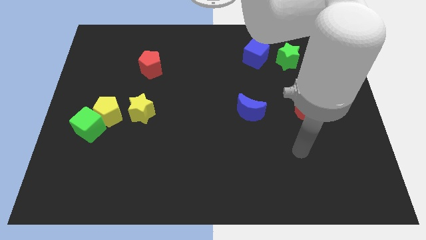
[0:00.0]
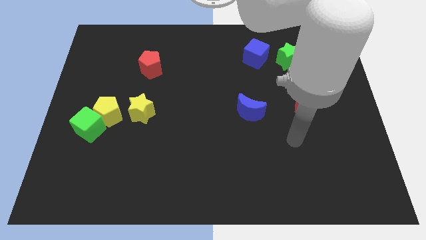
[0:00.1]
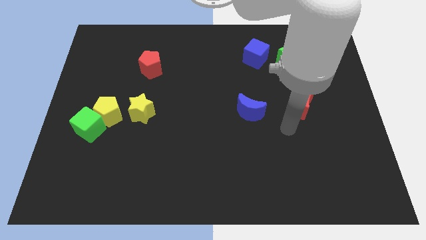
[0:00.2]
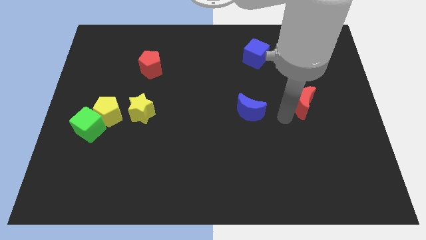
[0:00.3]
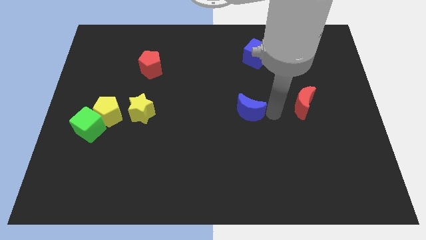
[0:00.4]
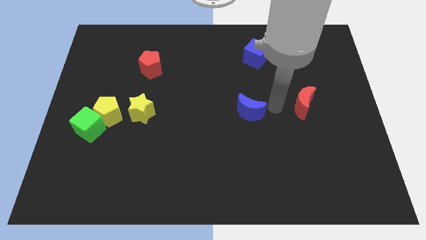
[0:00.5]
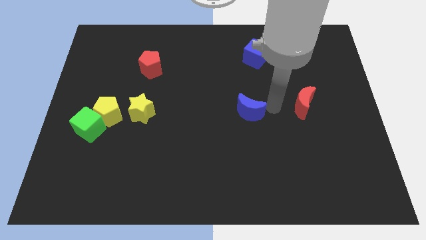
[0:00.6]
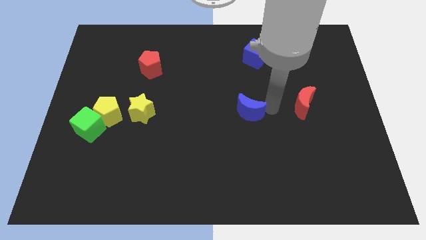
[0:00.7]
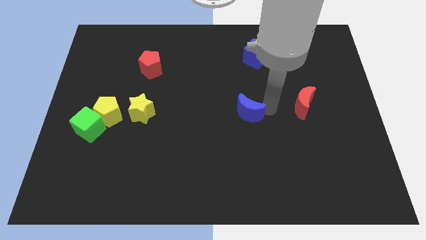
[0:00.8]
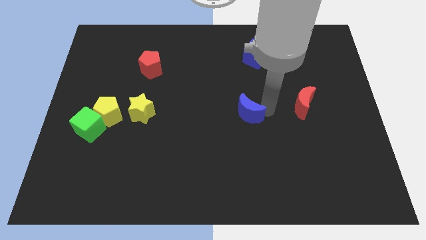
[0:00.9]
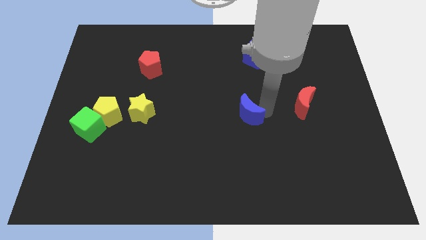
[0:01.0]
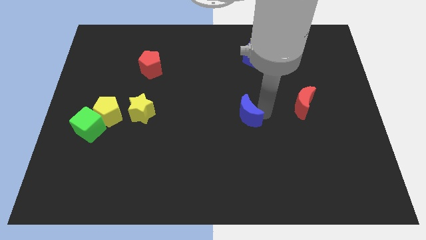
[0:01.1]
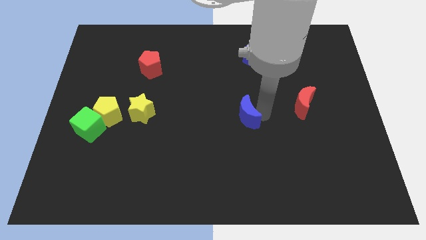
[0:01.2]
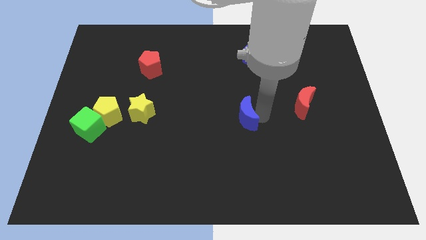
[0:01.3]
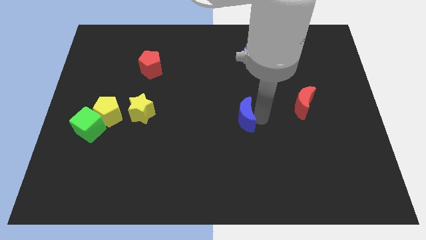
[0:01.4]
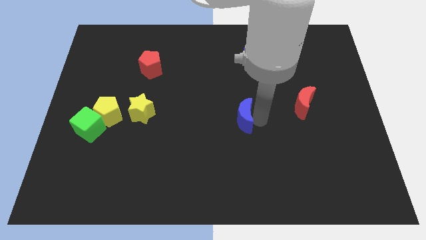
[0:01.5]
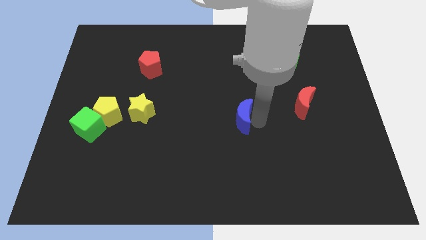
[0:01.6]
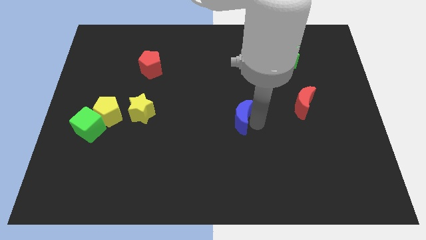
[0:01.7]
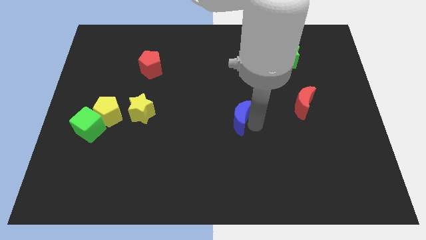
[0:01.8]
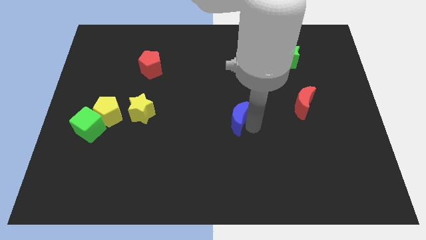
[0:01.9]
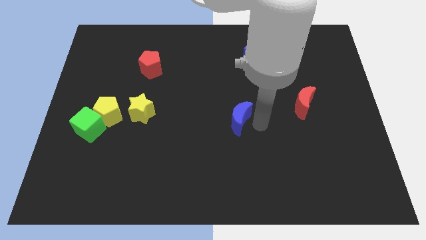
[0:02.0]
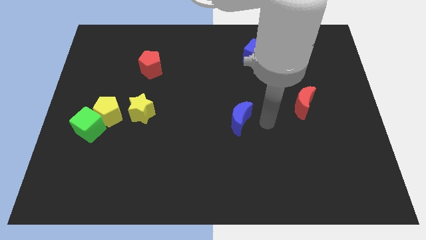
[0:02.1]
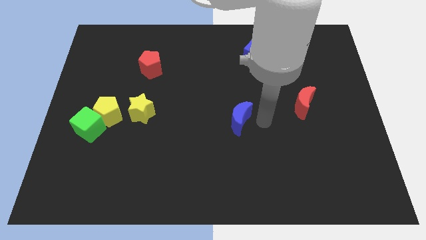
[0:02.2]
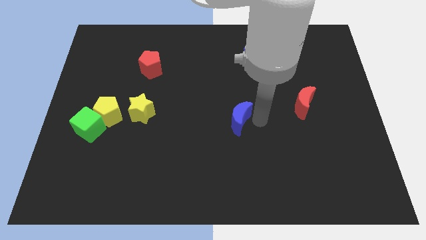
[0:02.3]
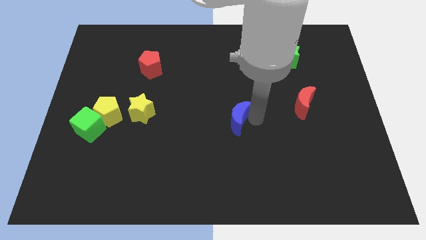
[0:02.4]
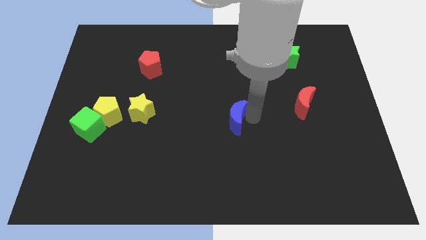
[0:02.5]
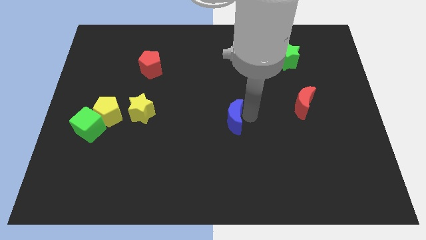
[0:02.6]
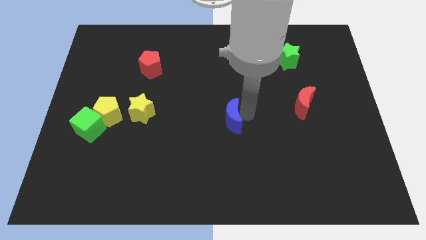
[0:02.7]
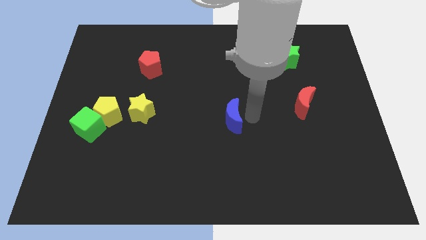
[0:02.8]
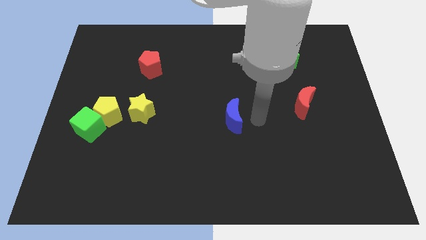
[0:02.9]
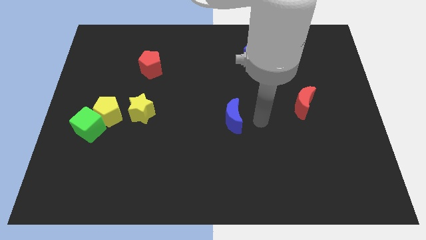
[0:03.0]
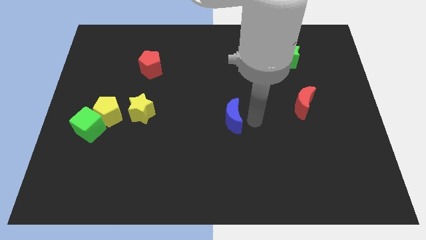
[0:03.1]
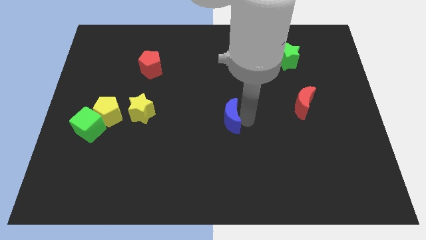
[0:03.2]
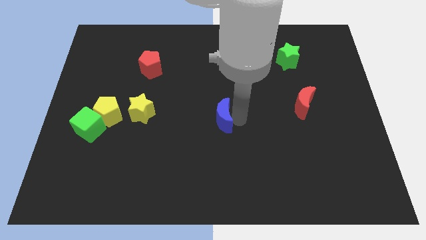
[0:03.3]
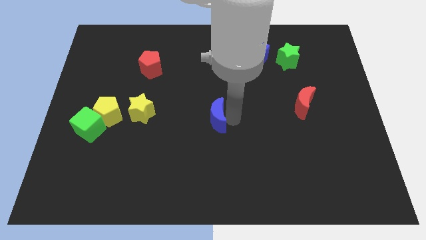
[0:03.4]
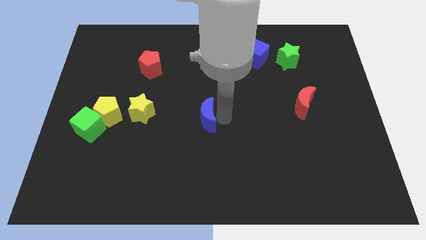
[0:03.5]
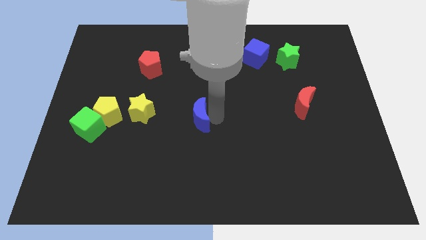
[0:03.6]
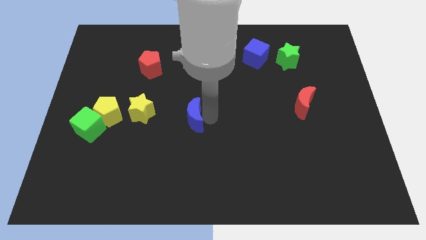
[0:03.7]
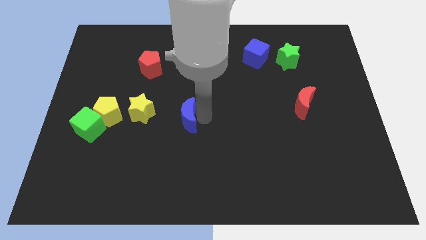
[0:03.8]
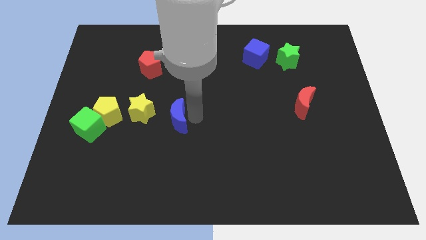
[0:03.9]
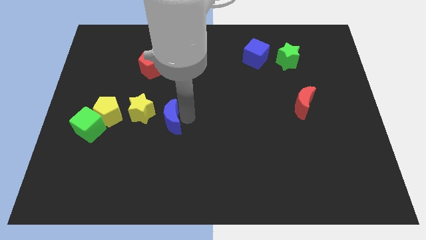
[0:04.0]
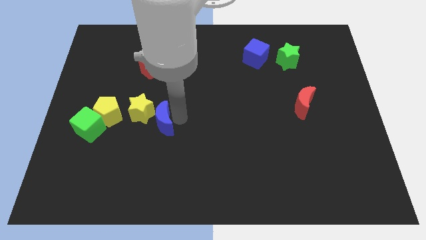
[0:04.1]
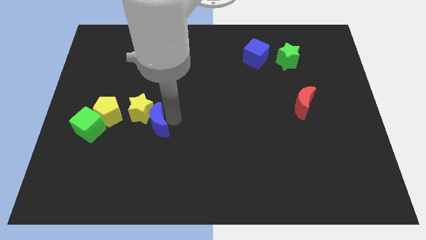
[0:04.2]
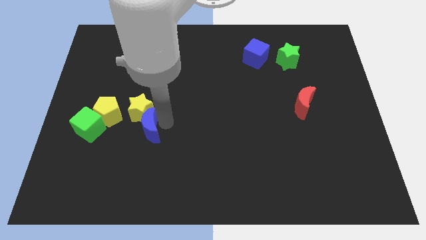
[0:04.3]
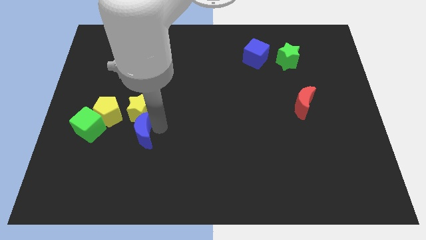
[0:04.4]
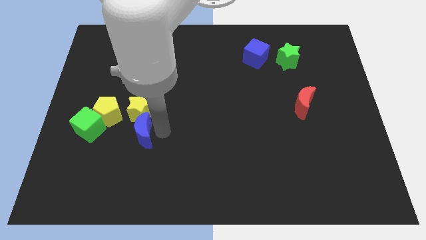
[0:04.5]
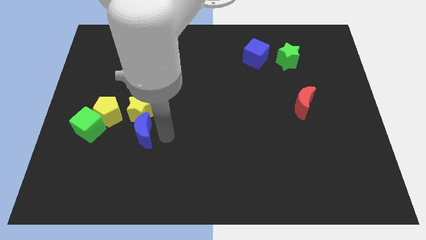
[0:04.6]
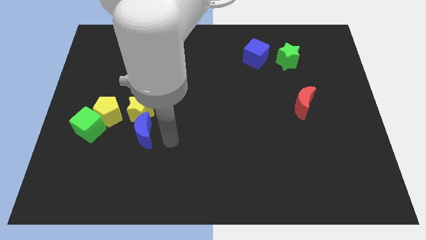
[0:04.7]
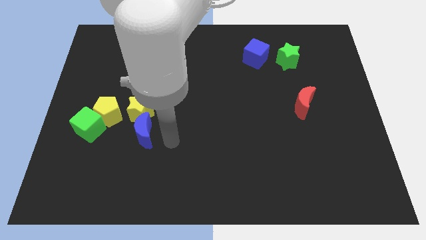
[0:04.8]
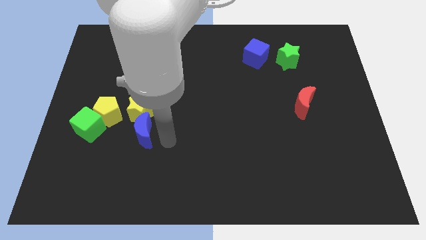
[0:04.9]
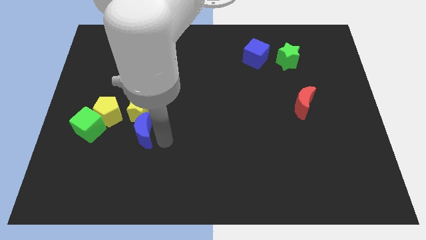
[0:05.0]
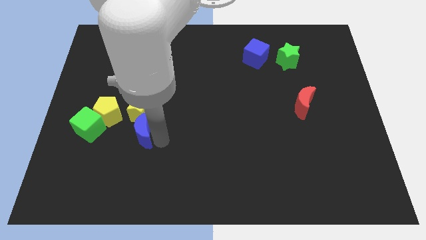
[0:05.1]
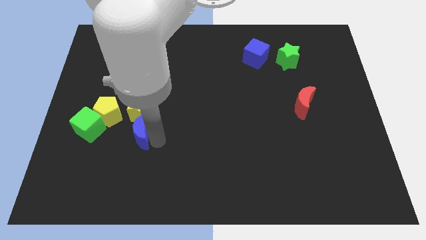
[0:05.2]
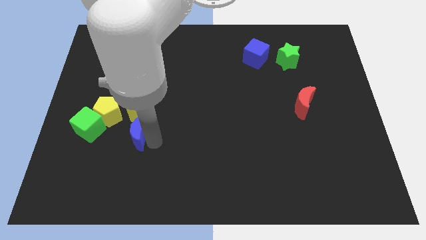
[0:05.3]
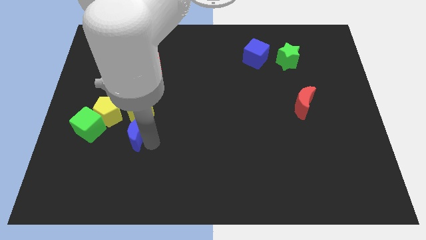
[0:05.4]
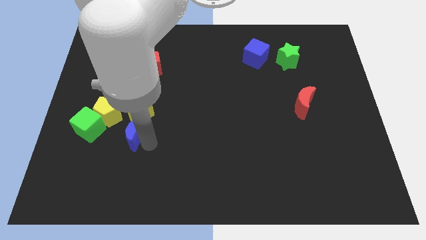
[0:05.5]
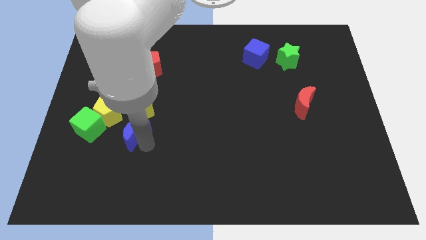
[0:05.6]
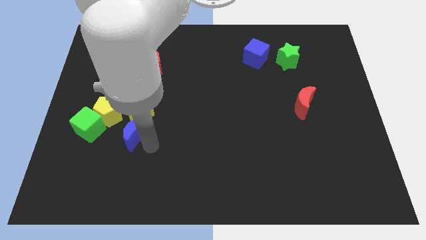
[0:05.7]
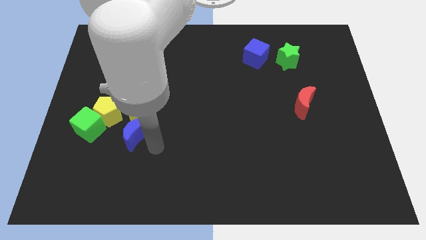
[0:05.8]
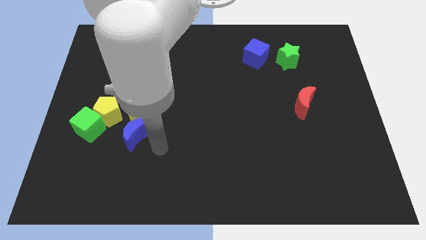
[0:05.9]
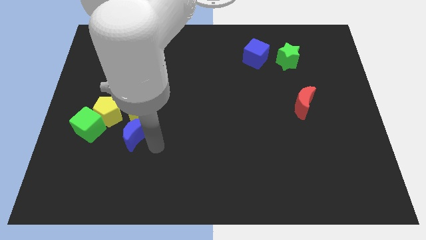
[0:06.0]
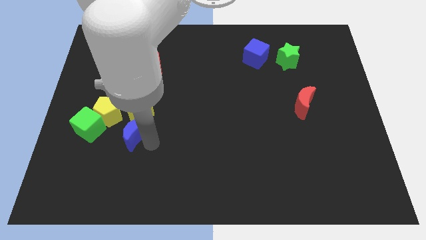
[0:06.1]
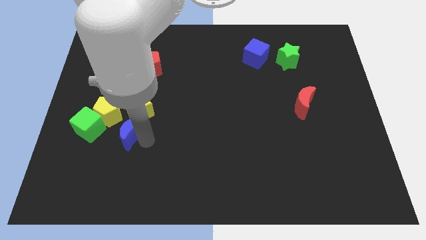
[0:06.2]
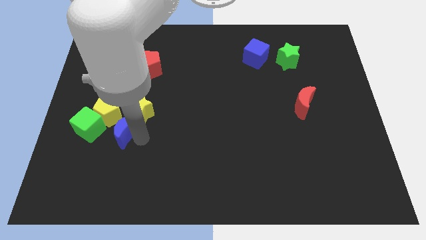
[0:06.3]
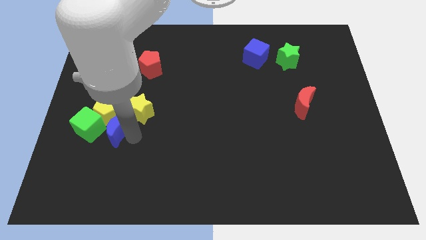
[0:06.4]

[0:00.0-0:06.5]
move the blue moon to the yellow pentagon

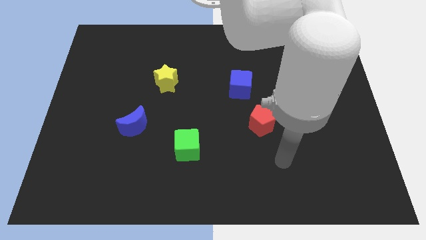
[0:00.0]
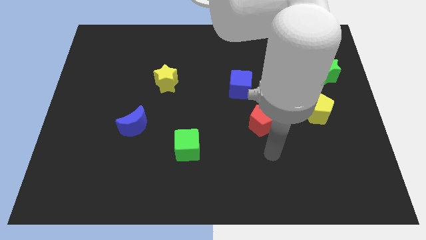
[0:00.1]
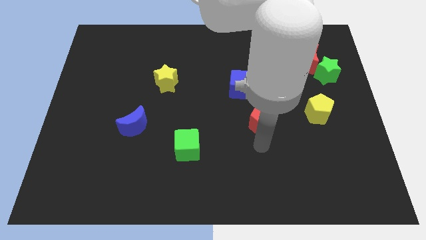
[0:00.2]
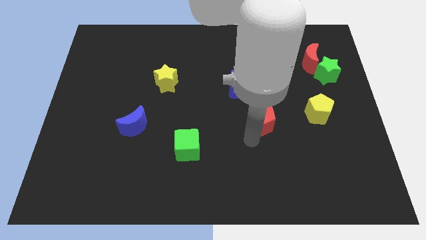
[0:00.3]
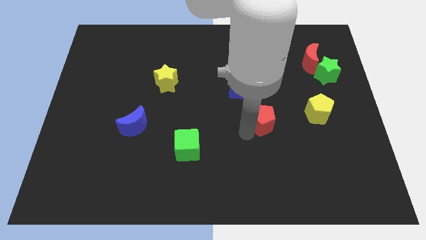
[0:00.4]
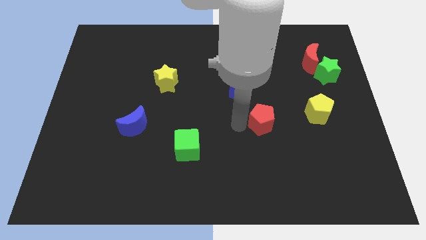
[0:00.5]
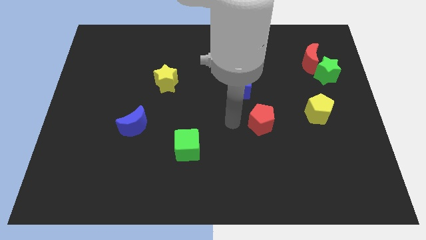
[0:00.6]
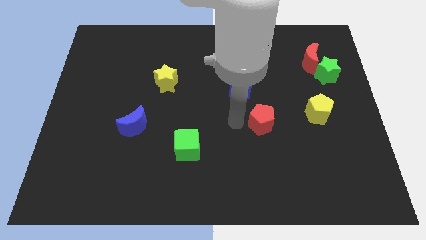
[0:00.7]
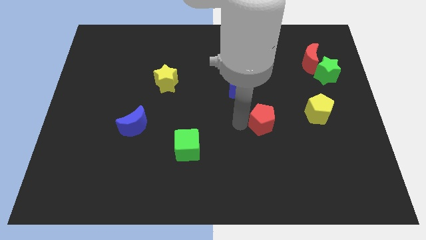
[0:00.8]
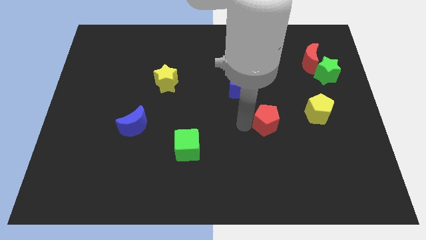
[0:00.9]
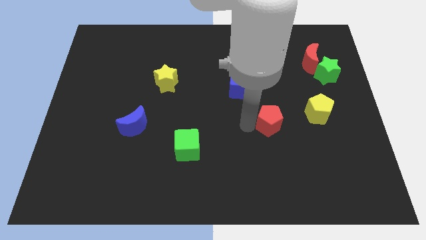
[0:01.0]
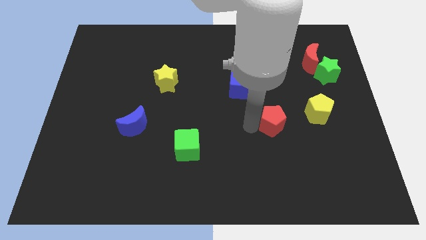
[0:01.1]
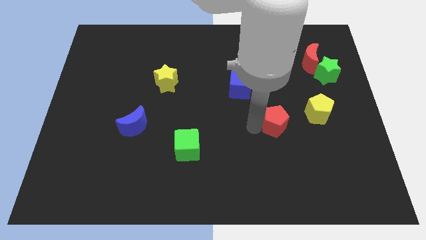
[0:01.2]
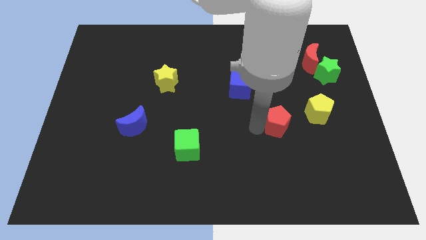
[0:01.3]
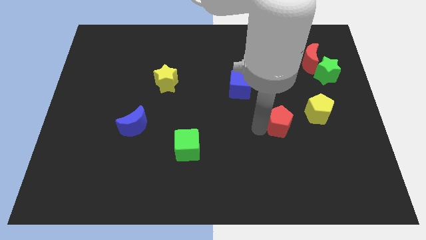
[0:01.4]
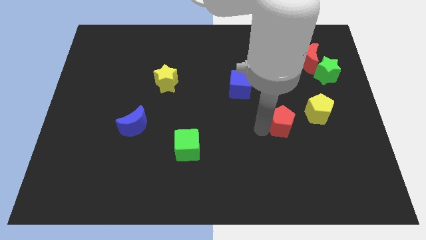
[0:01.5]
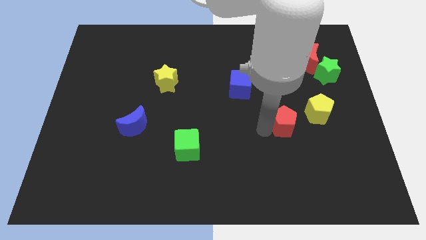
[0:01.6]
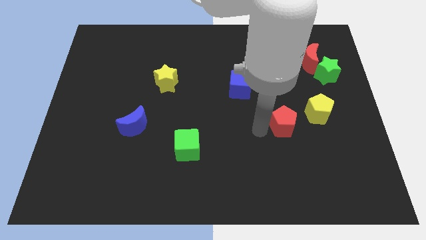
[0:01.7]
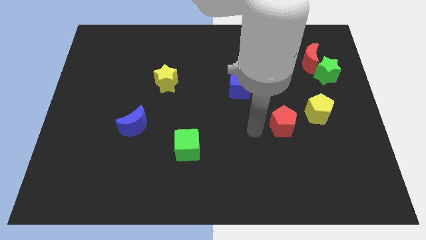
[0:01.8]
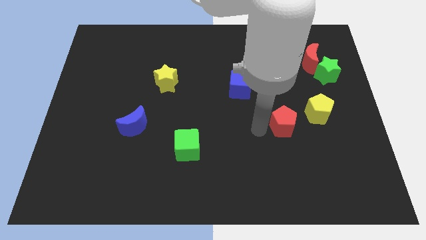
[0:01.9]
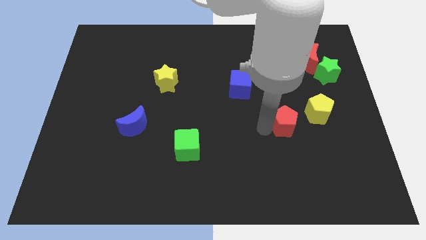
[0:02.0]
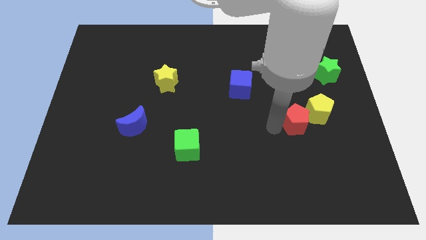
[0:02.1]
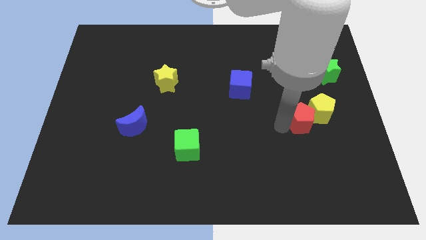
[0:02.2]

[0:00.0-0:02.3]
put the red pentagon next to the yellow pentagon
